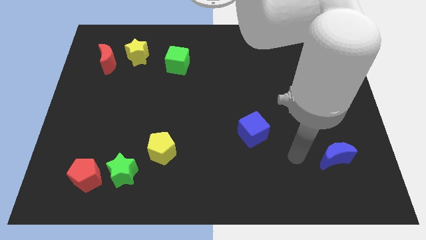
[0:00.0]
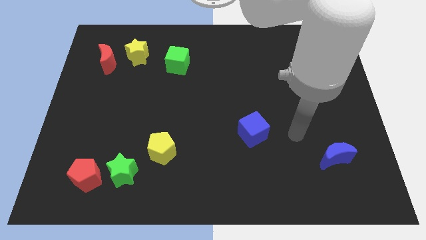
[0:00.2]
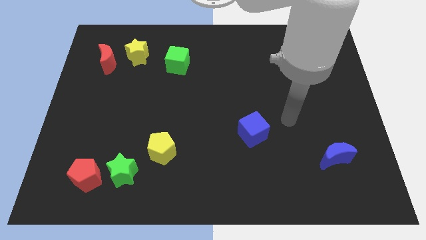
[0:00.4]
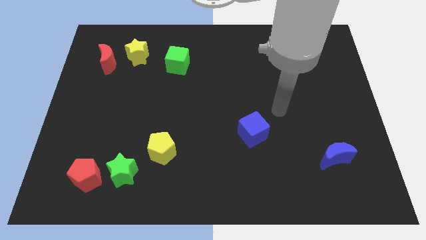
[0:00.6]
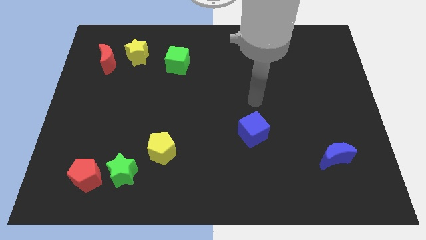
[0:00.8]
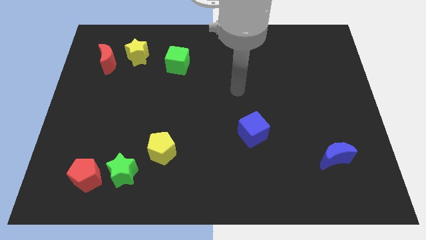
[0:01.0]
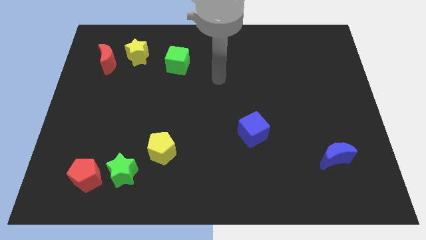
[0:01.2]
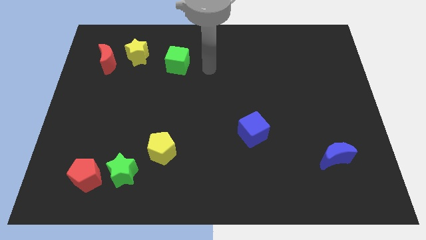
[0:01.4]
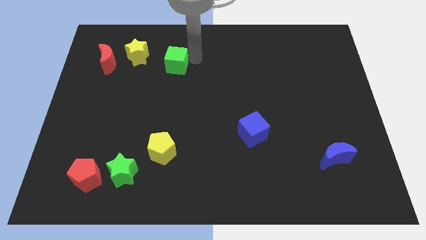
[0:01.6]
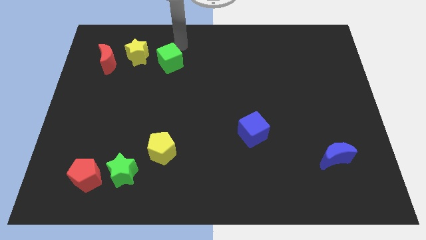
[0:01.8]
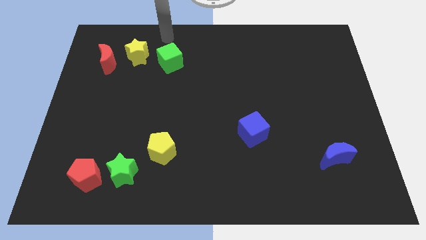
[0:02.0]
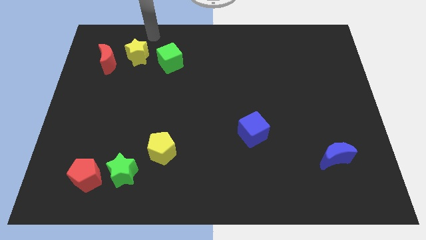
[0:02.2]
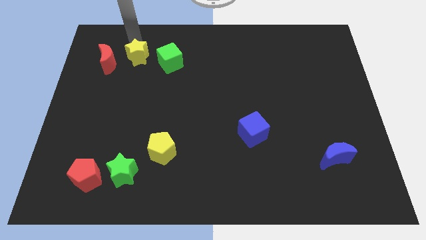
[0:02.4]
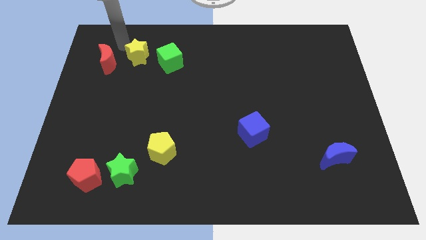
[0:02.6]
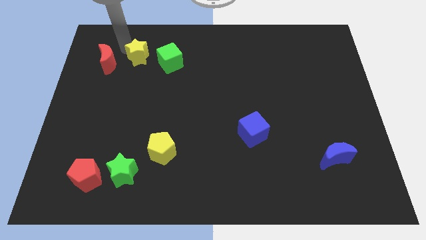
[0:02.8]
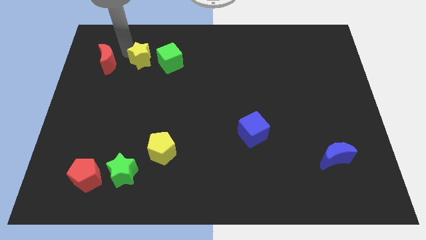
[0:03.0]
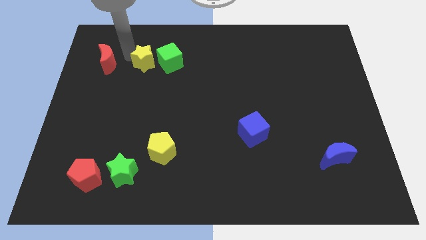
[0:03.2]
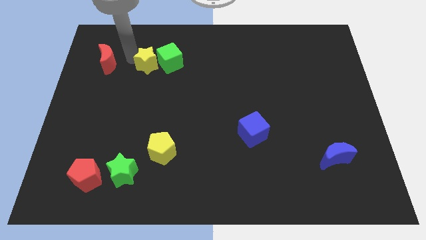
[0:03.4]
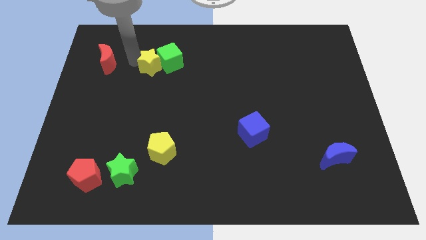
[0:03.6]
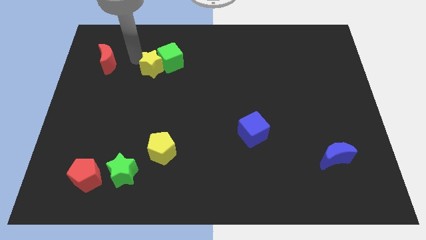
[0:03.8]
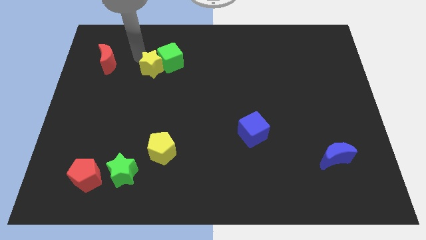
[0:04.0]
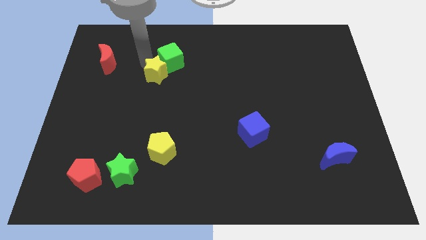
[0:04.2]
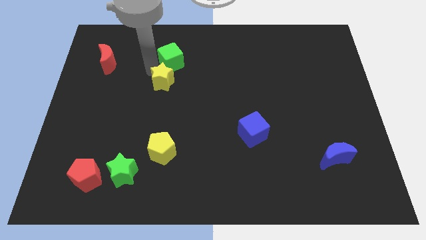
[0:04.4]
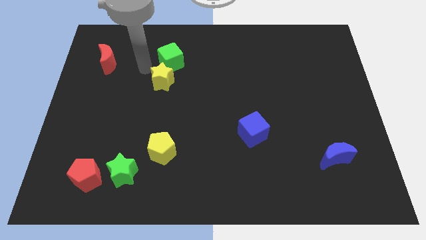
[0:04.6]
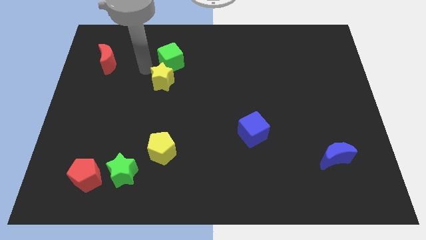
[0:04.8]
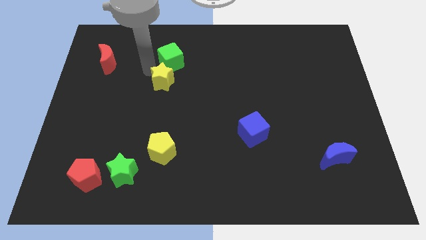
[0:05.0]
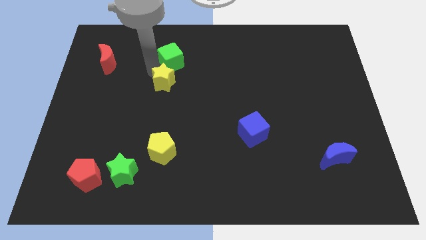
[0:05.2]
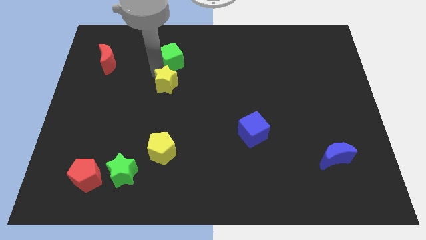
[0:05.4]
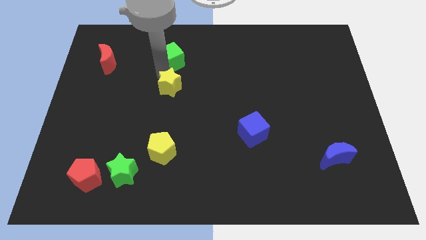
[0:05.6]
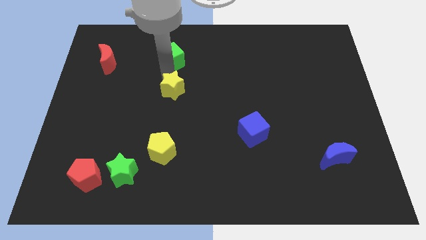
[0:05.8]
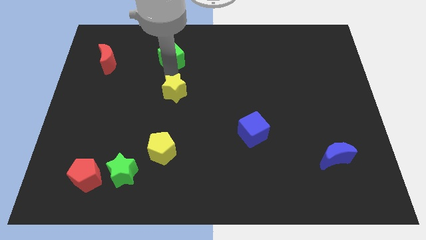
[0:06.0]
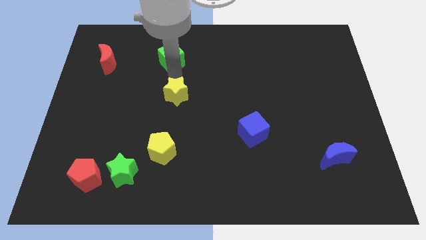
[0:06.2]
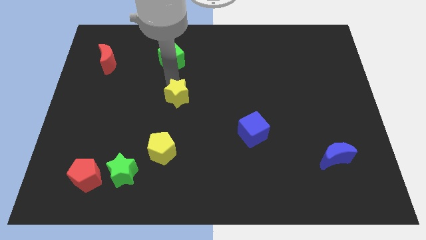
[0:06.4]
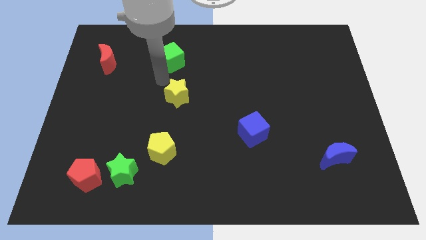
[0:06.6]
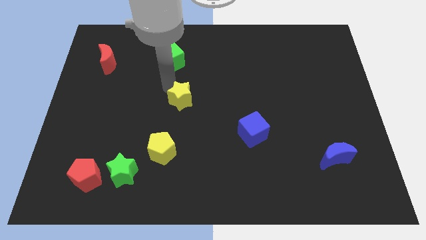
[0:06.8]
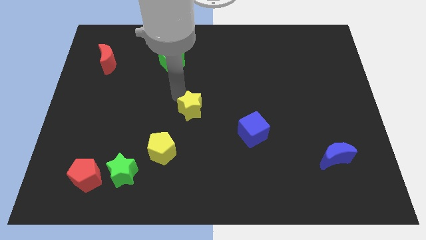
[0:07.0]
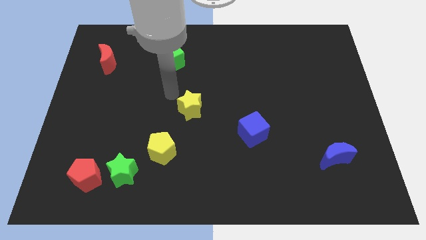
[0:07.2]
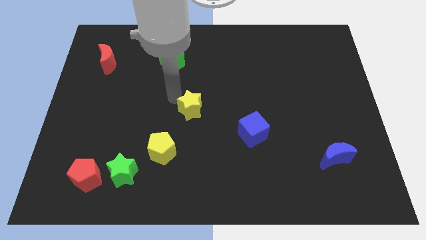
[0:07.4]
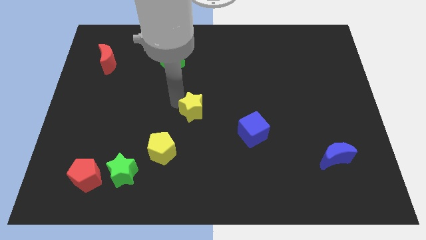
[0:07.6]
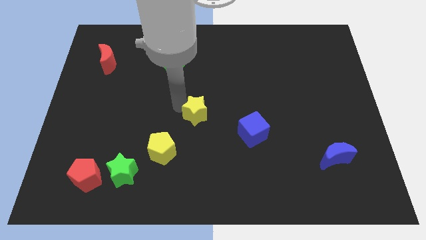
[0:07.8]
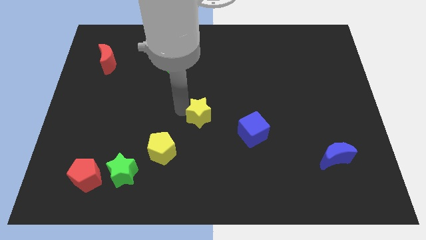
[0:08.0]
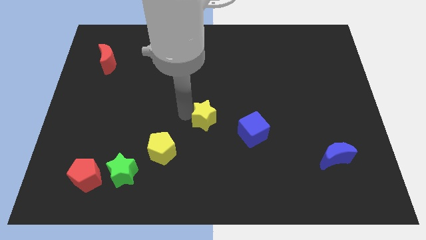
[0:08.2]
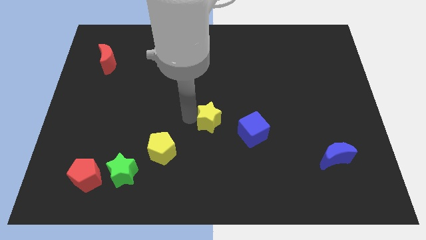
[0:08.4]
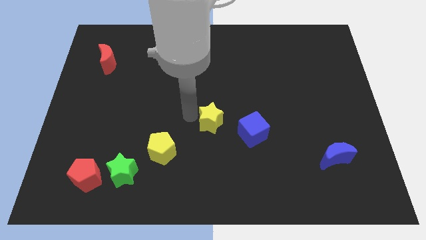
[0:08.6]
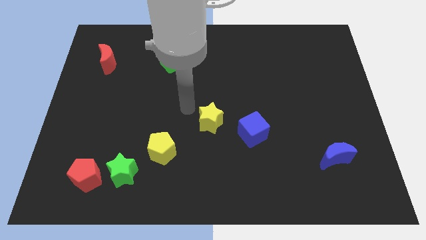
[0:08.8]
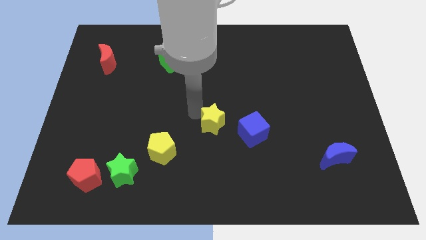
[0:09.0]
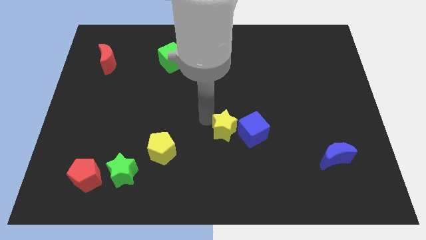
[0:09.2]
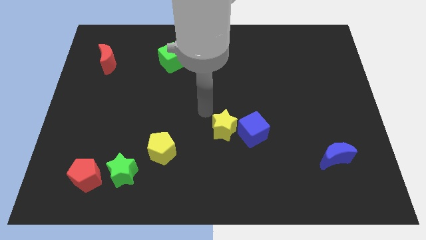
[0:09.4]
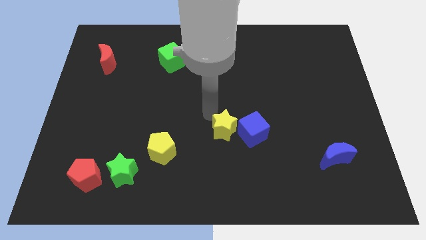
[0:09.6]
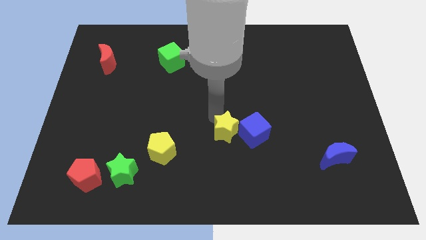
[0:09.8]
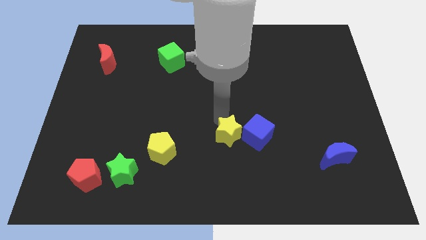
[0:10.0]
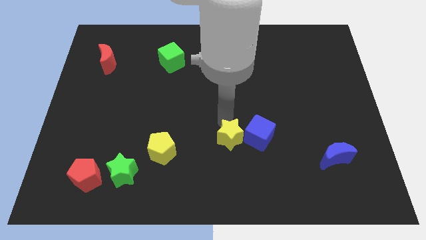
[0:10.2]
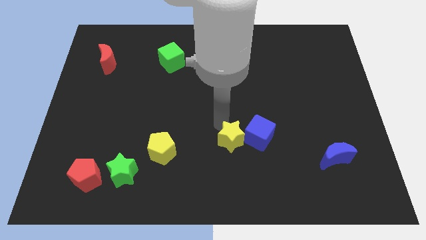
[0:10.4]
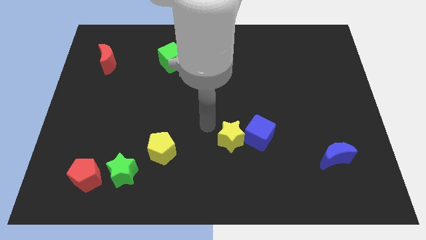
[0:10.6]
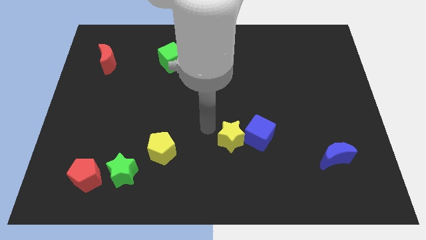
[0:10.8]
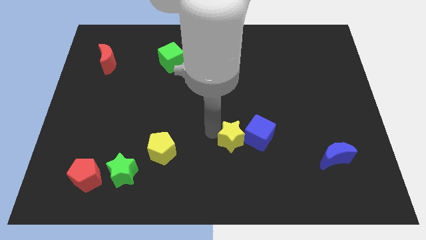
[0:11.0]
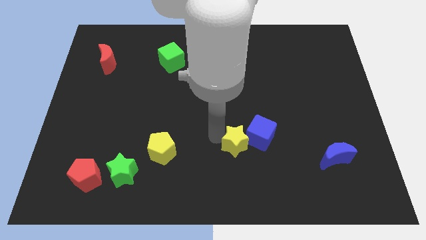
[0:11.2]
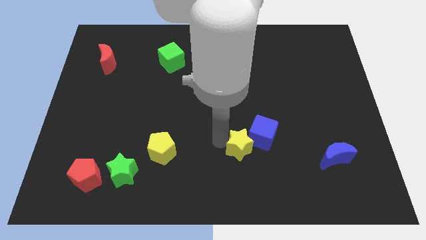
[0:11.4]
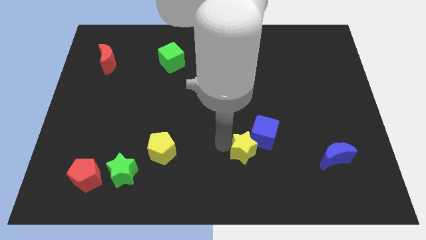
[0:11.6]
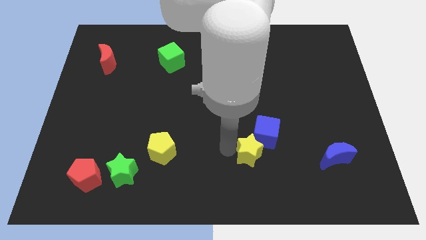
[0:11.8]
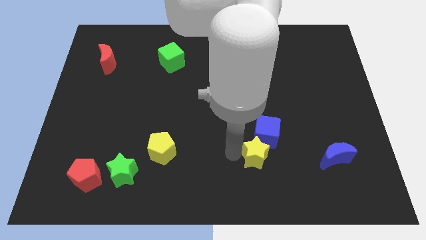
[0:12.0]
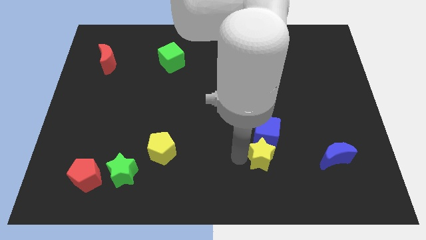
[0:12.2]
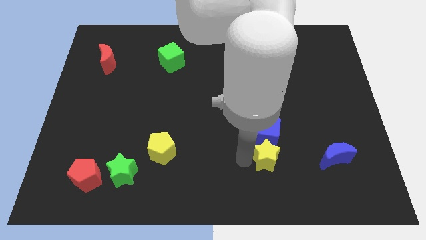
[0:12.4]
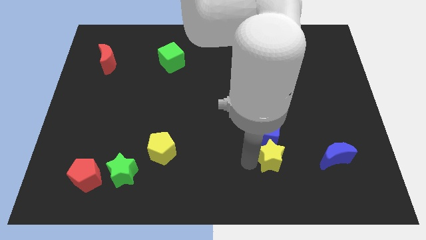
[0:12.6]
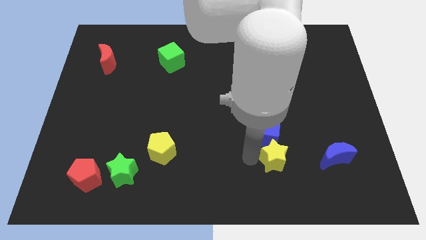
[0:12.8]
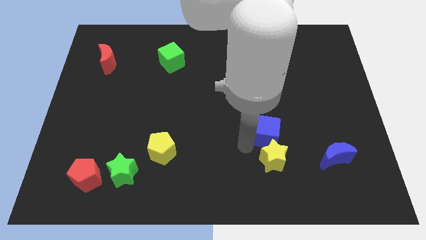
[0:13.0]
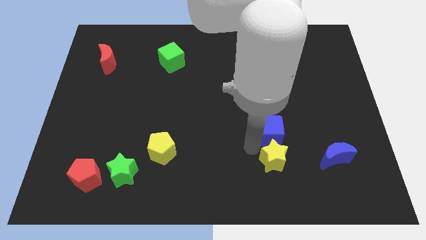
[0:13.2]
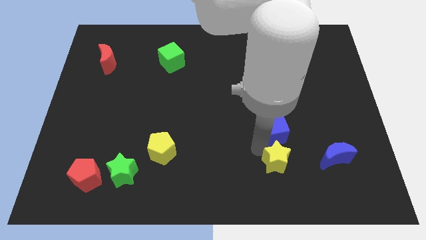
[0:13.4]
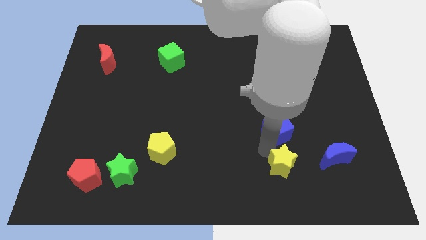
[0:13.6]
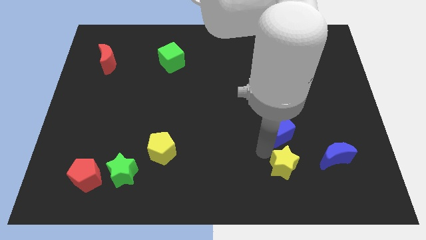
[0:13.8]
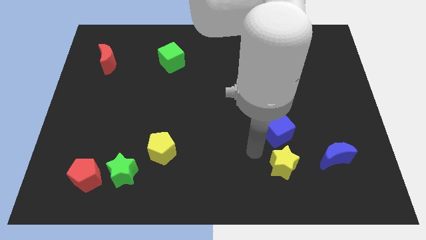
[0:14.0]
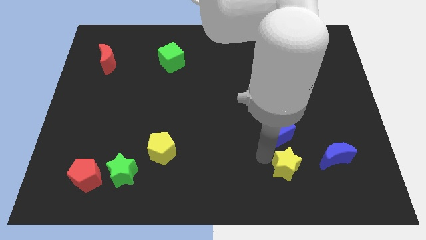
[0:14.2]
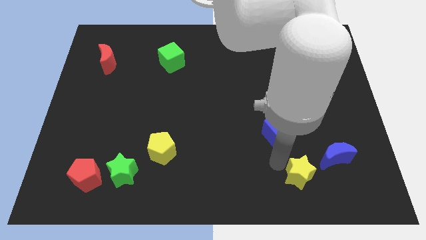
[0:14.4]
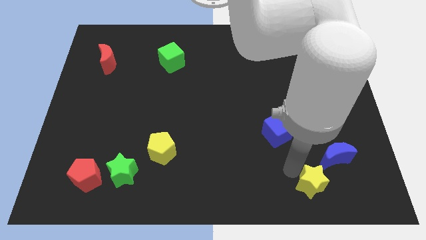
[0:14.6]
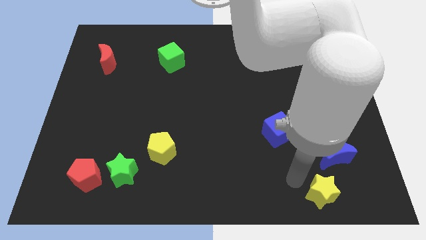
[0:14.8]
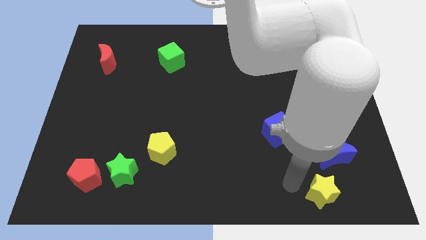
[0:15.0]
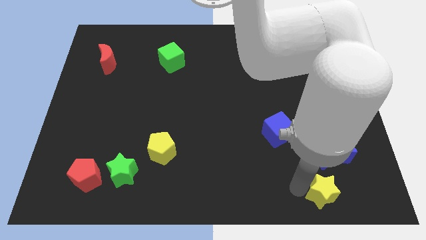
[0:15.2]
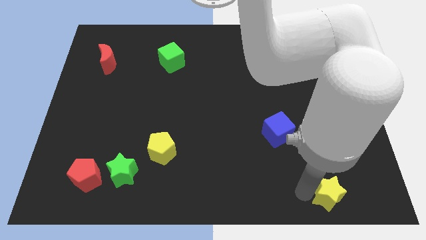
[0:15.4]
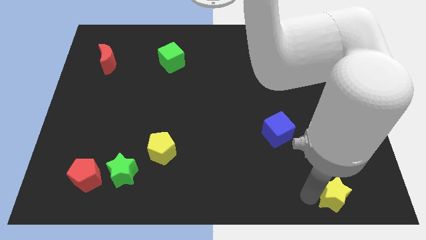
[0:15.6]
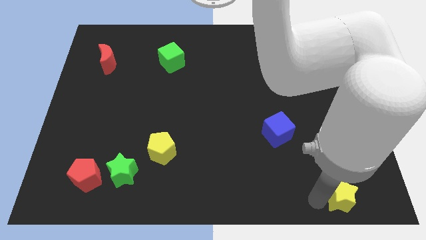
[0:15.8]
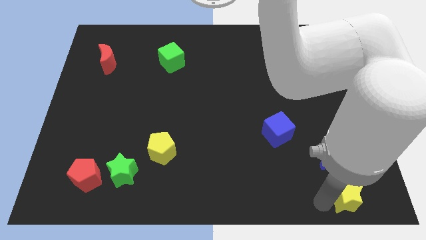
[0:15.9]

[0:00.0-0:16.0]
move the yellow star to the lower right corner
